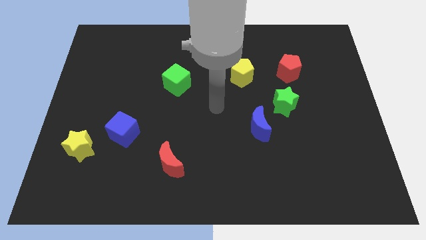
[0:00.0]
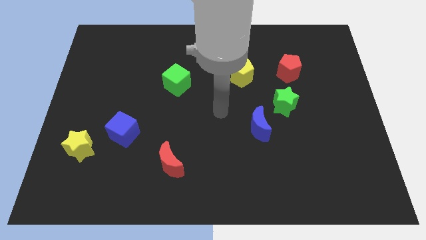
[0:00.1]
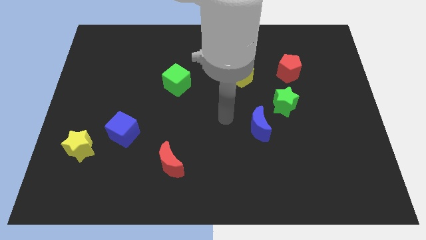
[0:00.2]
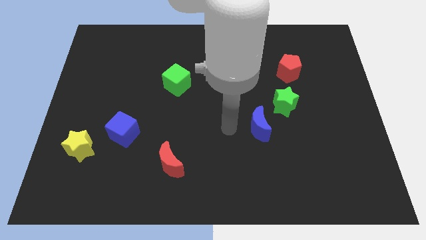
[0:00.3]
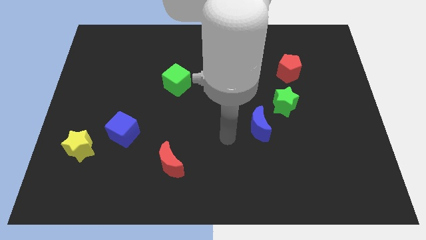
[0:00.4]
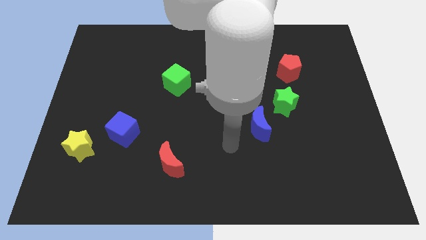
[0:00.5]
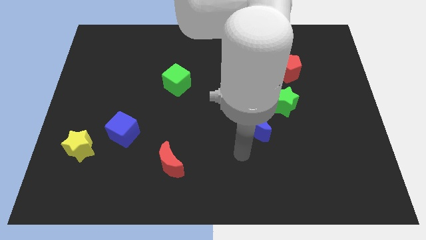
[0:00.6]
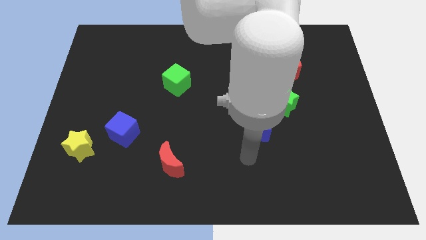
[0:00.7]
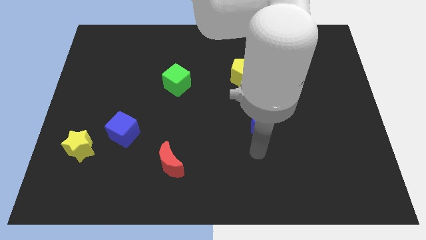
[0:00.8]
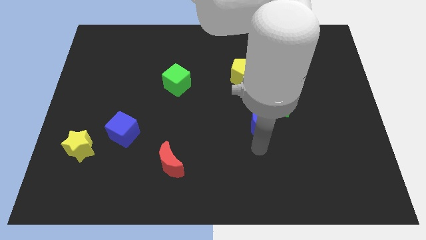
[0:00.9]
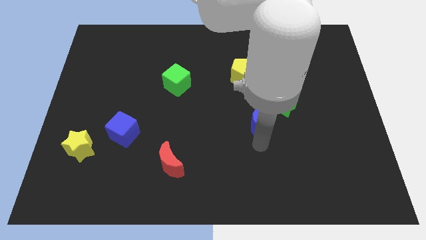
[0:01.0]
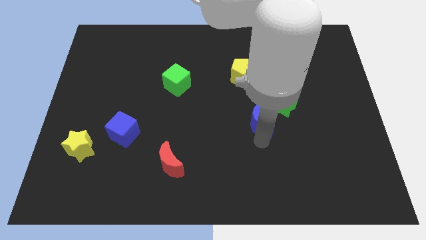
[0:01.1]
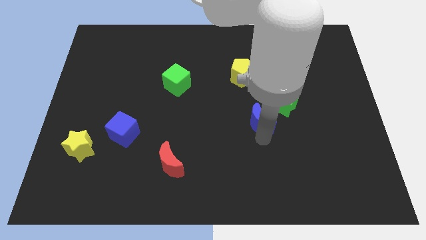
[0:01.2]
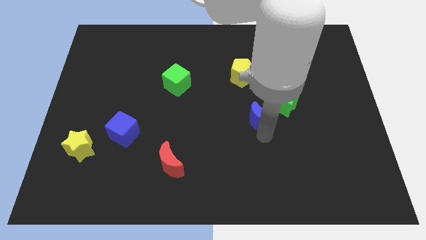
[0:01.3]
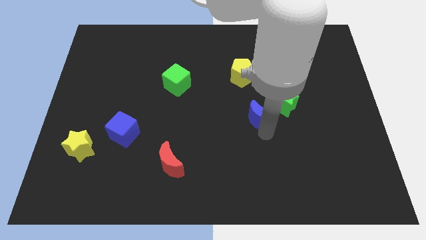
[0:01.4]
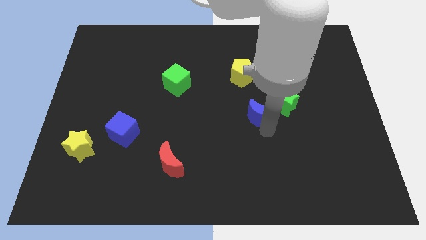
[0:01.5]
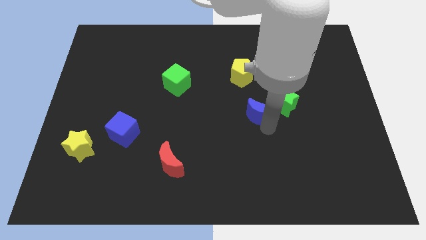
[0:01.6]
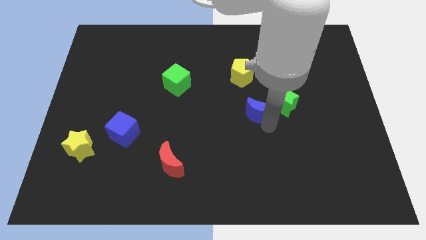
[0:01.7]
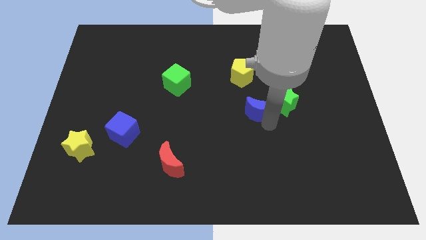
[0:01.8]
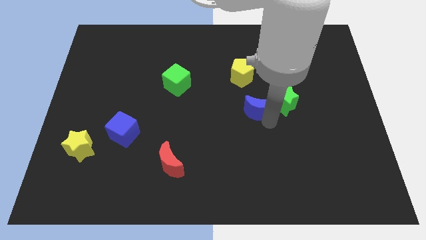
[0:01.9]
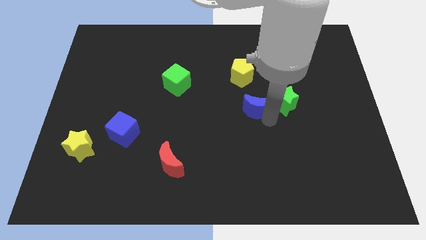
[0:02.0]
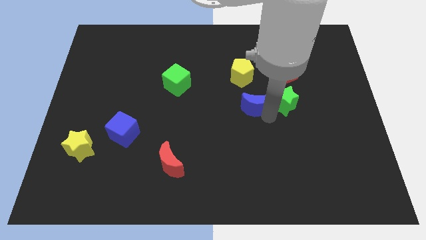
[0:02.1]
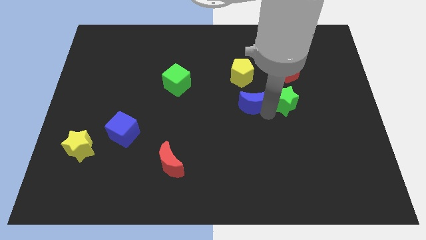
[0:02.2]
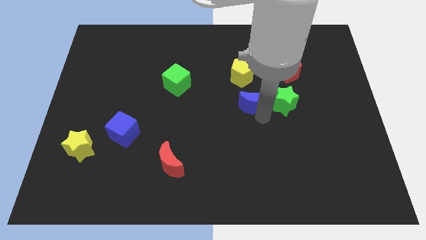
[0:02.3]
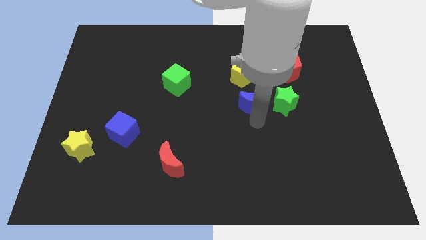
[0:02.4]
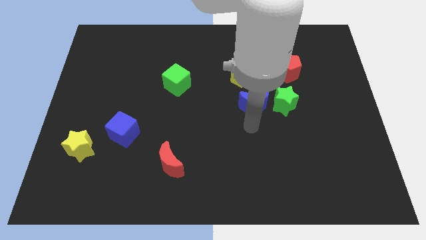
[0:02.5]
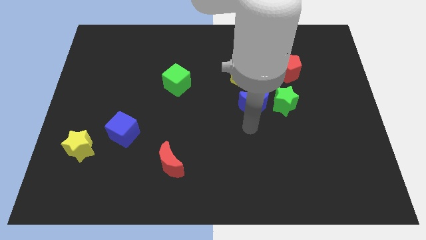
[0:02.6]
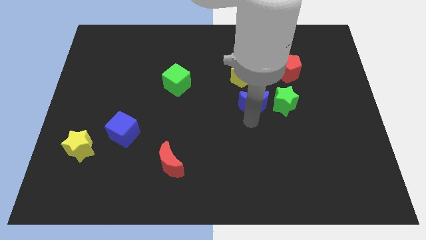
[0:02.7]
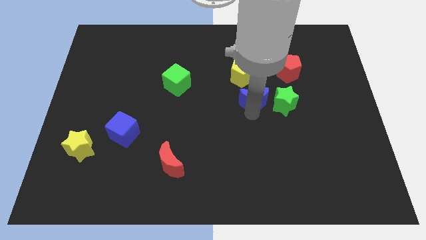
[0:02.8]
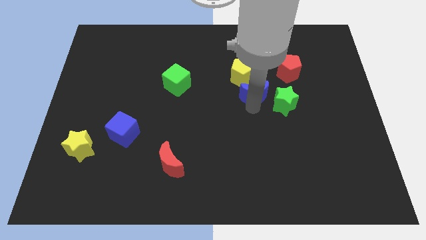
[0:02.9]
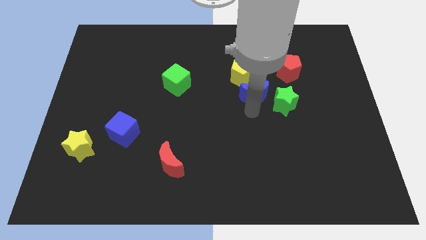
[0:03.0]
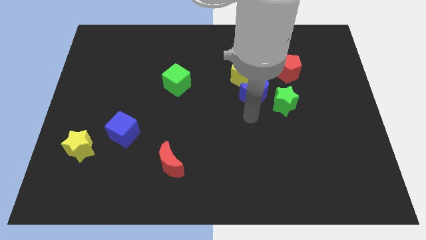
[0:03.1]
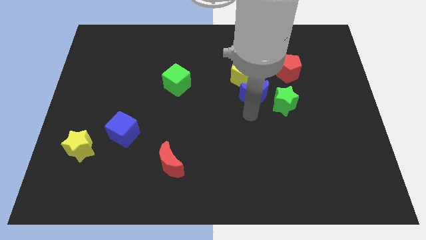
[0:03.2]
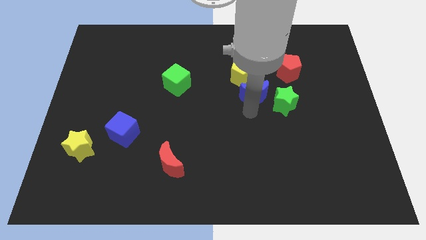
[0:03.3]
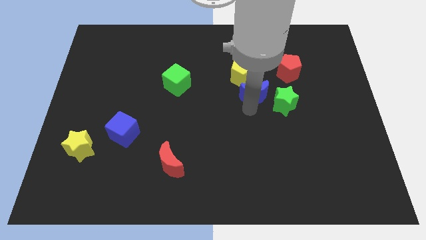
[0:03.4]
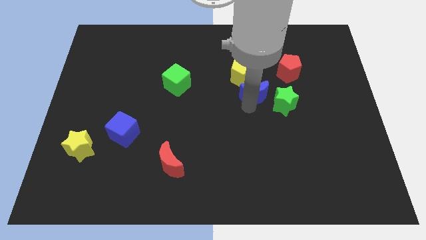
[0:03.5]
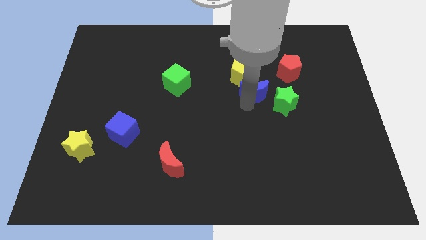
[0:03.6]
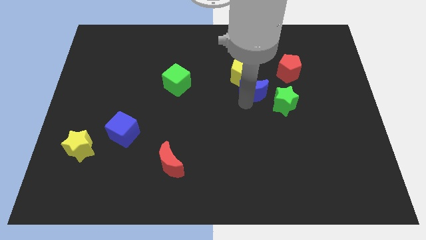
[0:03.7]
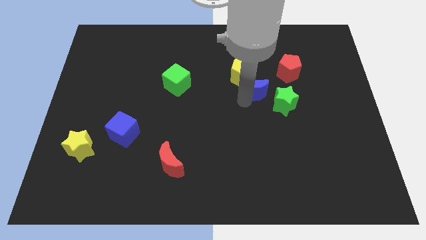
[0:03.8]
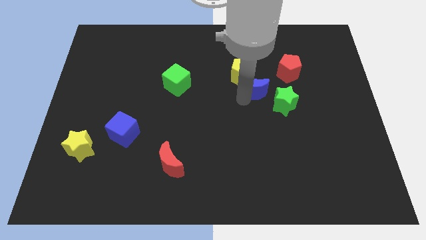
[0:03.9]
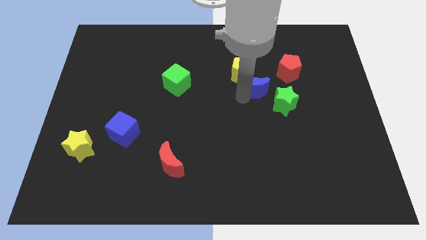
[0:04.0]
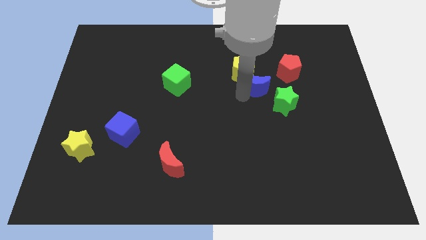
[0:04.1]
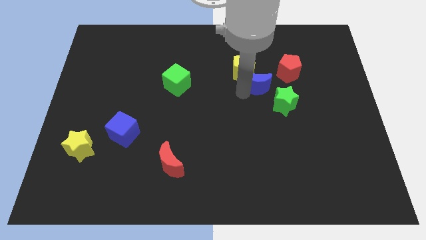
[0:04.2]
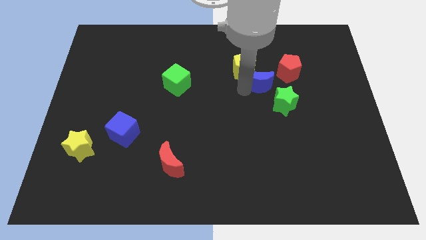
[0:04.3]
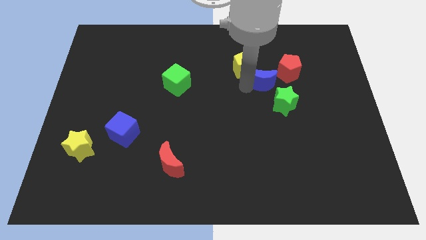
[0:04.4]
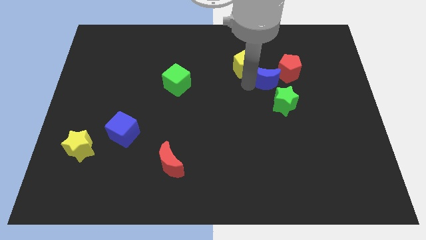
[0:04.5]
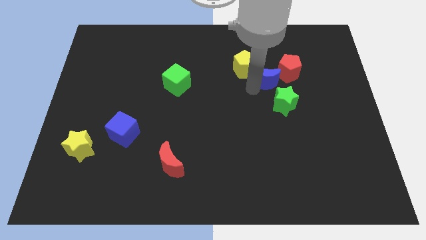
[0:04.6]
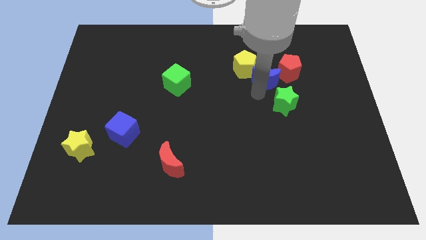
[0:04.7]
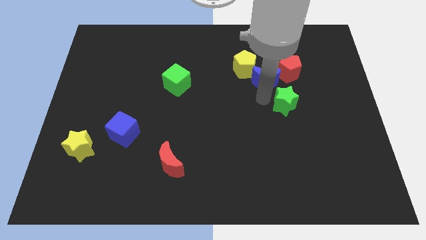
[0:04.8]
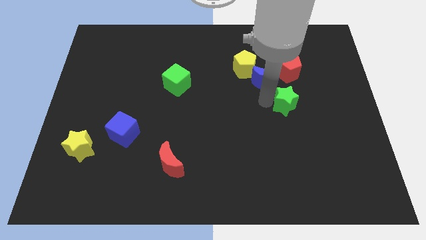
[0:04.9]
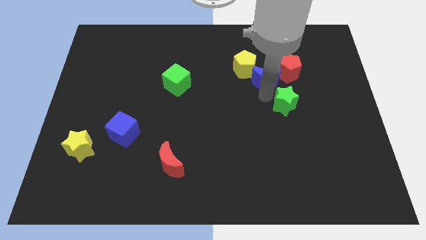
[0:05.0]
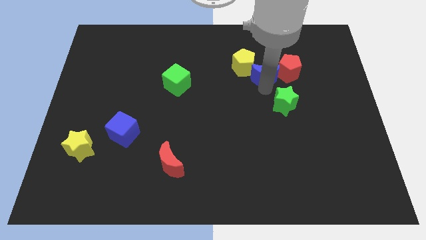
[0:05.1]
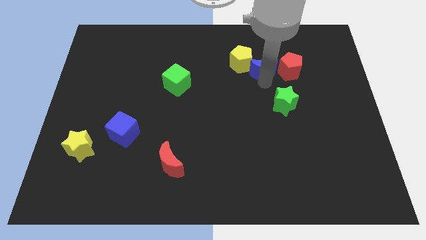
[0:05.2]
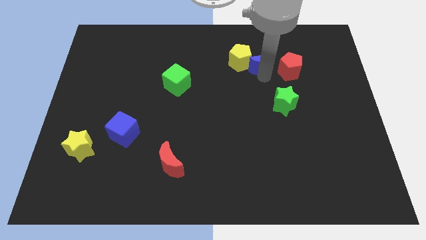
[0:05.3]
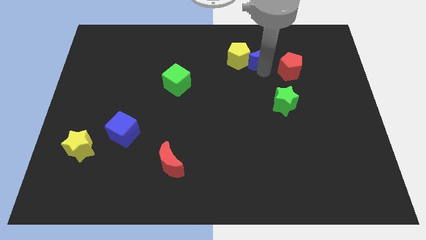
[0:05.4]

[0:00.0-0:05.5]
put the blue moon to the top right of the yellow pentagon
